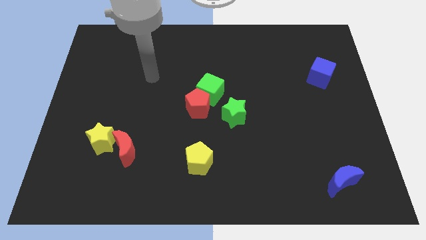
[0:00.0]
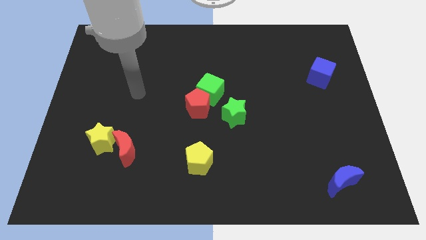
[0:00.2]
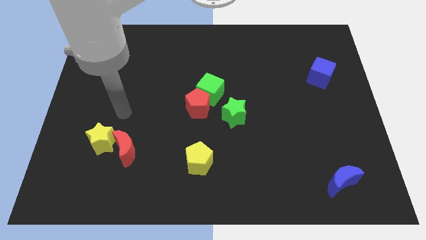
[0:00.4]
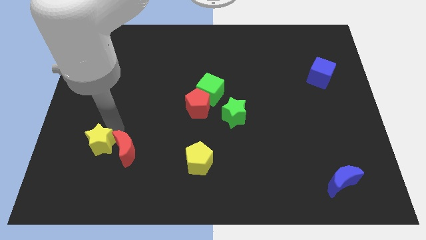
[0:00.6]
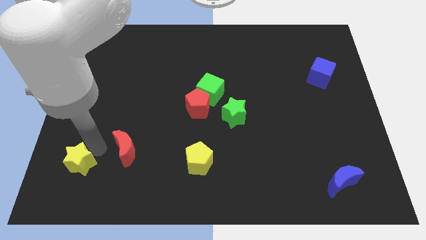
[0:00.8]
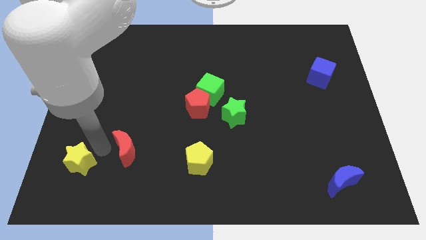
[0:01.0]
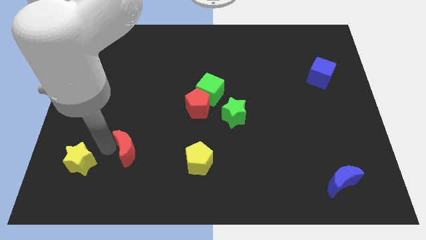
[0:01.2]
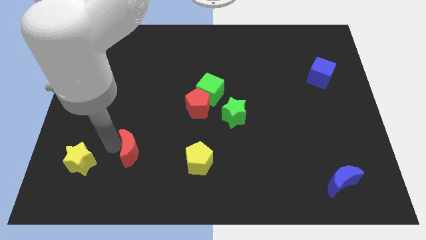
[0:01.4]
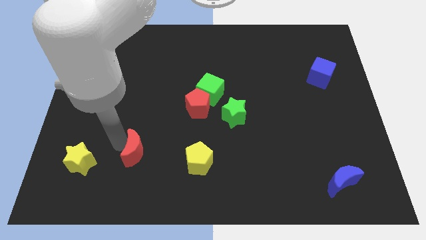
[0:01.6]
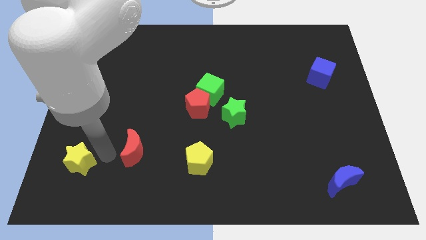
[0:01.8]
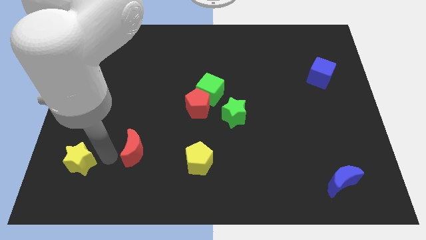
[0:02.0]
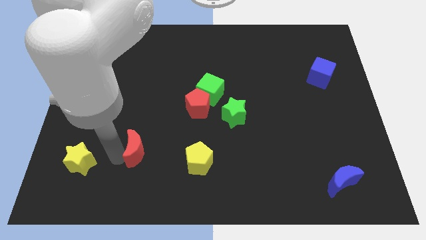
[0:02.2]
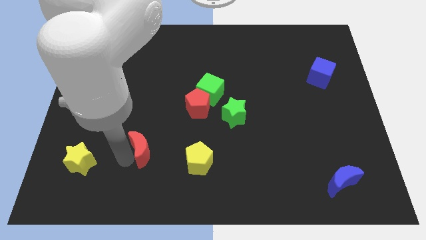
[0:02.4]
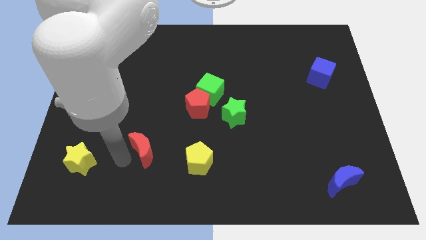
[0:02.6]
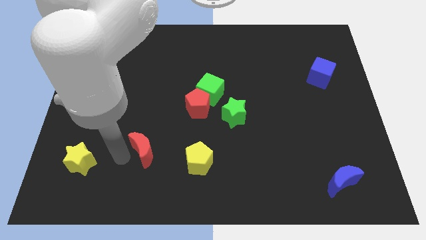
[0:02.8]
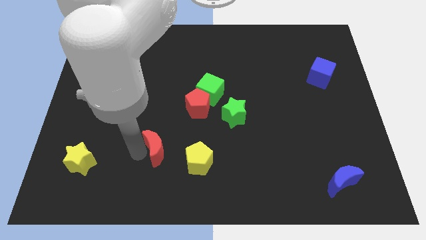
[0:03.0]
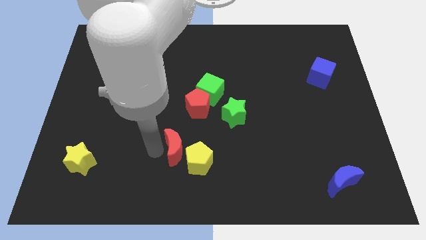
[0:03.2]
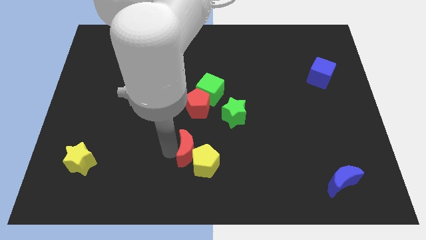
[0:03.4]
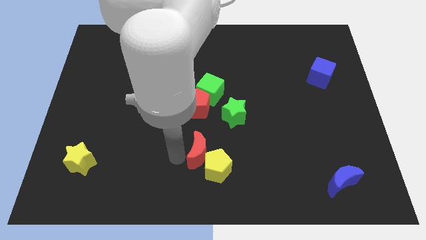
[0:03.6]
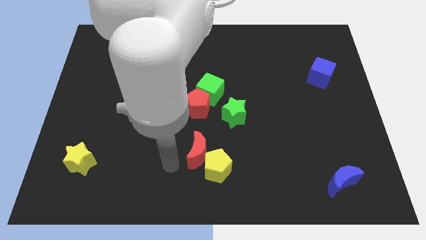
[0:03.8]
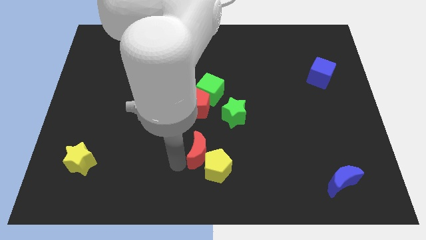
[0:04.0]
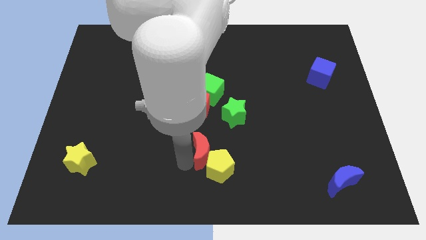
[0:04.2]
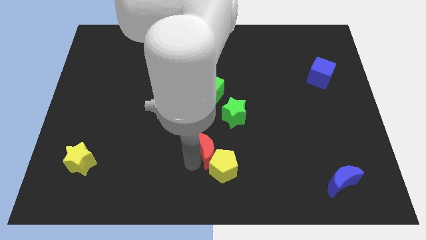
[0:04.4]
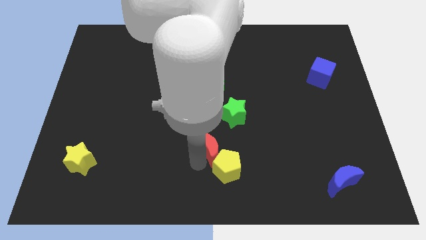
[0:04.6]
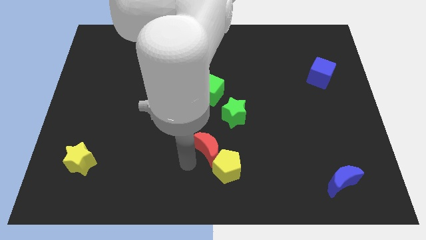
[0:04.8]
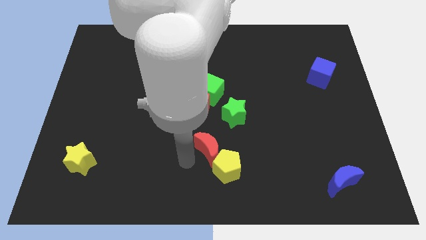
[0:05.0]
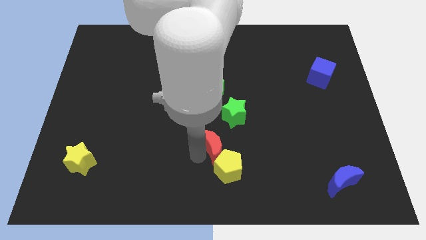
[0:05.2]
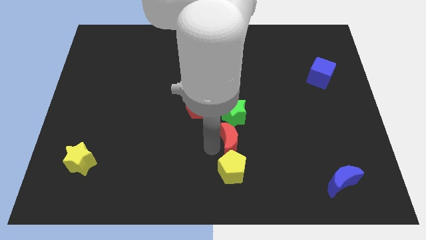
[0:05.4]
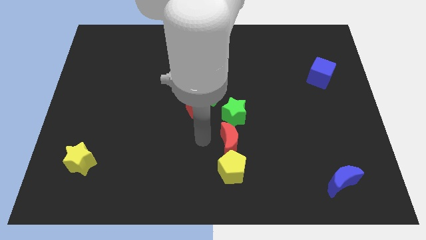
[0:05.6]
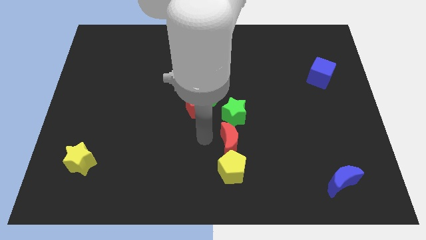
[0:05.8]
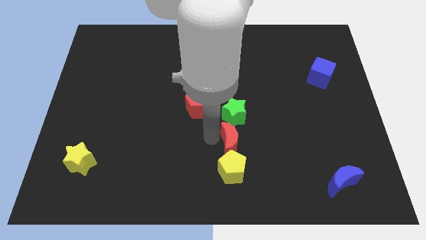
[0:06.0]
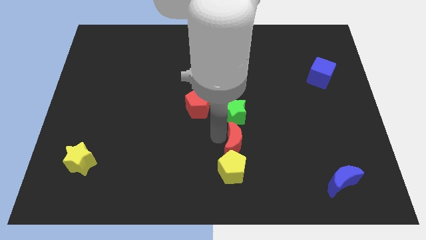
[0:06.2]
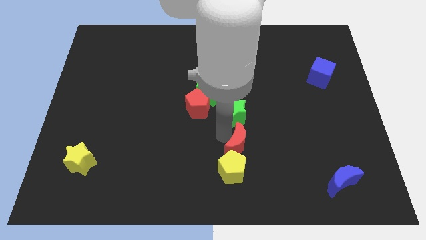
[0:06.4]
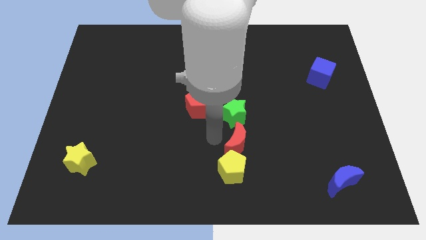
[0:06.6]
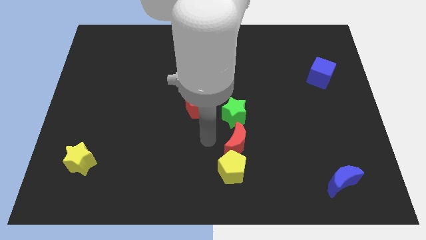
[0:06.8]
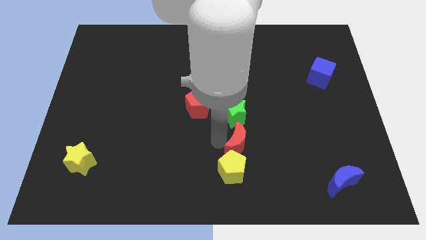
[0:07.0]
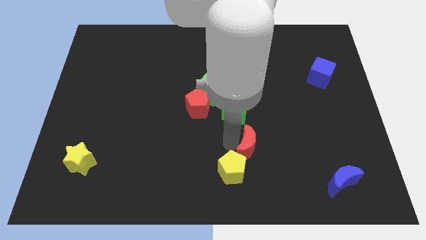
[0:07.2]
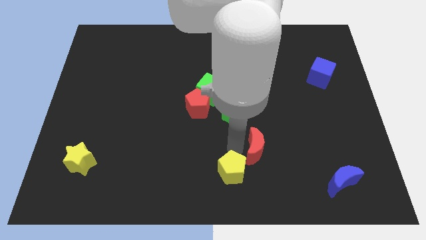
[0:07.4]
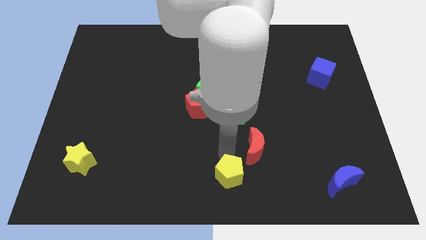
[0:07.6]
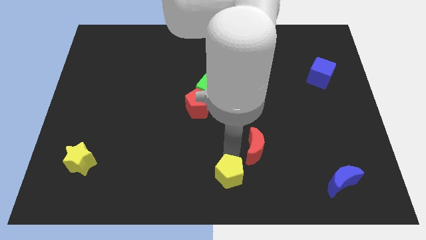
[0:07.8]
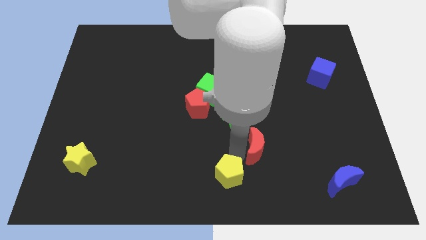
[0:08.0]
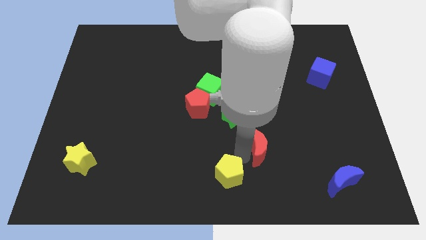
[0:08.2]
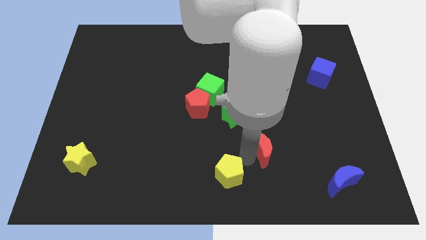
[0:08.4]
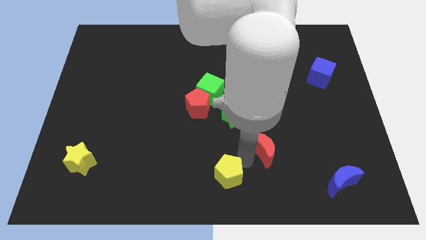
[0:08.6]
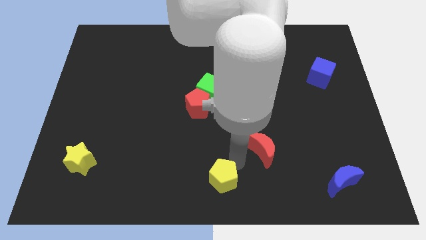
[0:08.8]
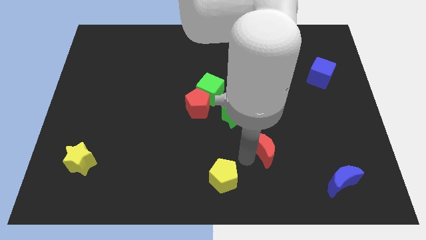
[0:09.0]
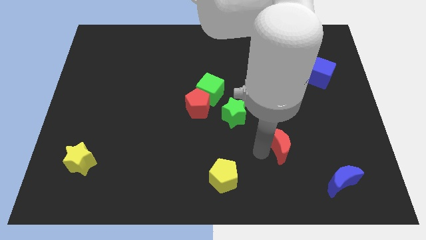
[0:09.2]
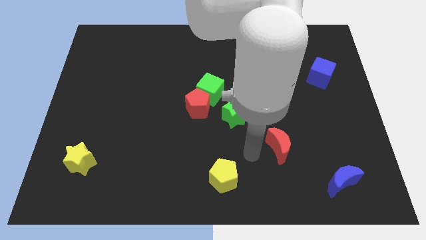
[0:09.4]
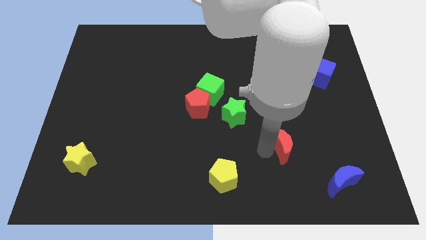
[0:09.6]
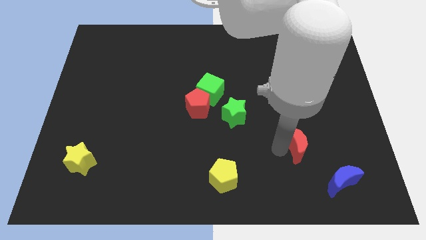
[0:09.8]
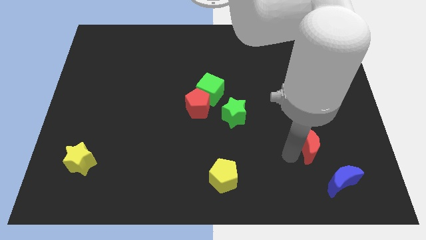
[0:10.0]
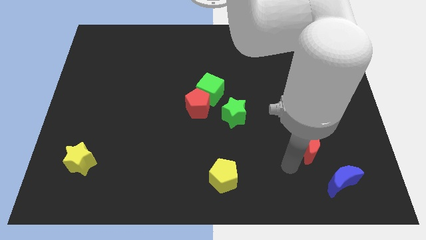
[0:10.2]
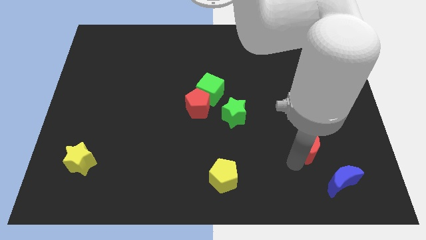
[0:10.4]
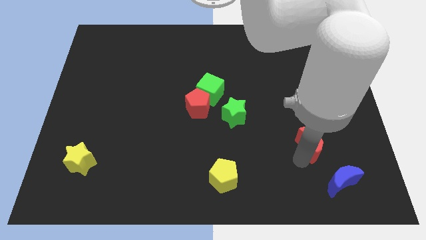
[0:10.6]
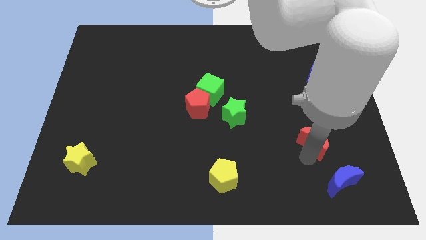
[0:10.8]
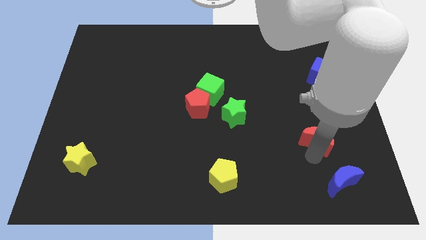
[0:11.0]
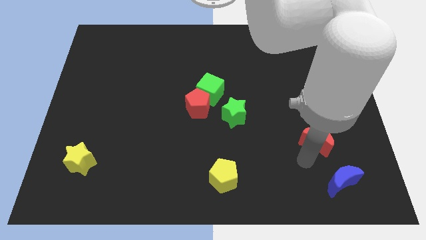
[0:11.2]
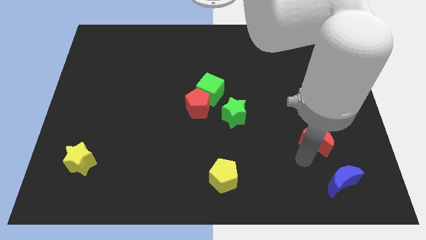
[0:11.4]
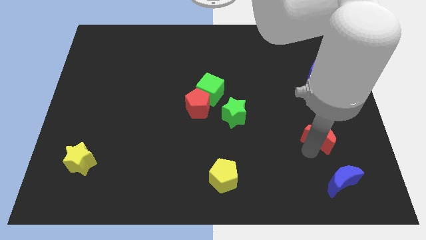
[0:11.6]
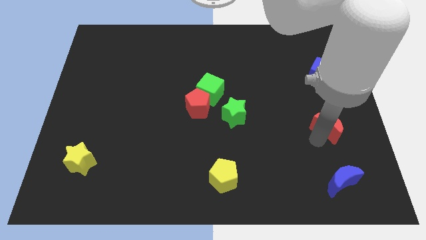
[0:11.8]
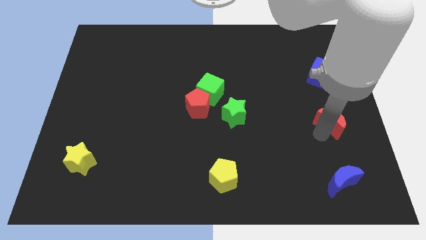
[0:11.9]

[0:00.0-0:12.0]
slide the red moon to the right side of the board
